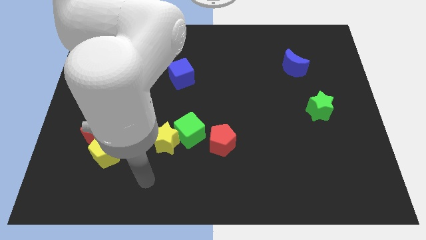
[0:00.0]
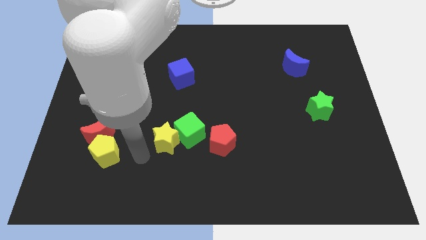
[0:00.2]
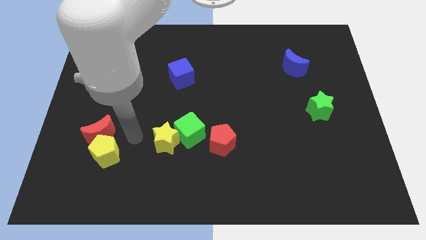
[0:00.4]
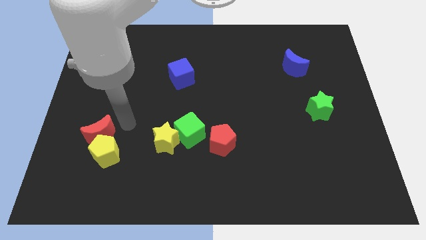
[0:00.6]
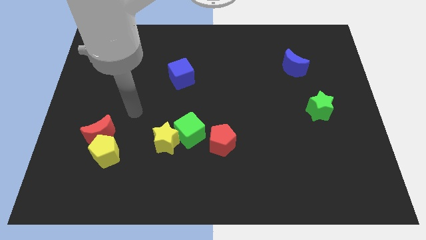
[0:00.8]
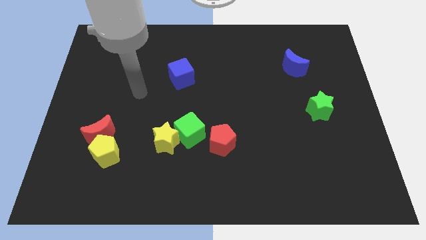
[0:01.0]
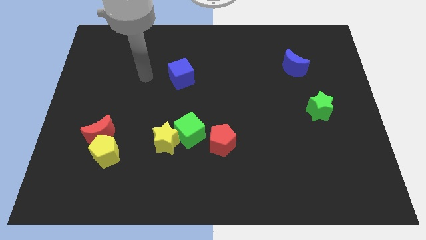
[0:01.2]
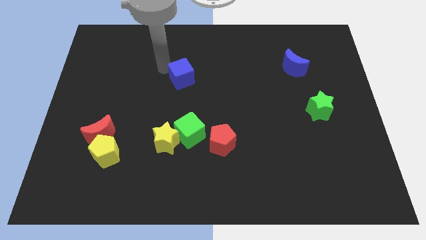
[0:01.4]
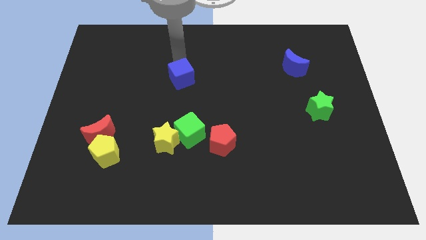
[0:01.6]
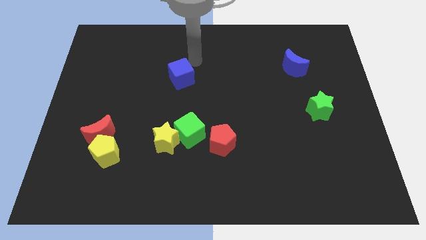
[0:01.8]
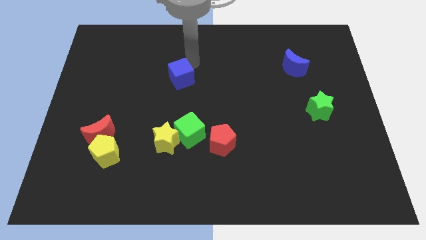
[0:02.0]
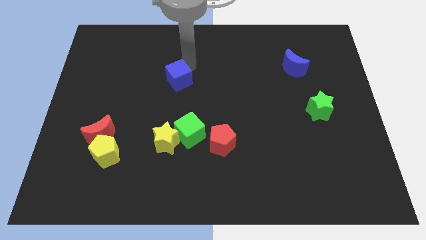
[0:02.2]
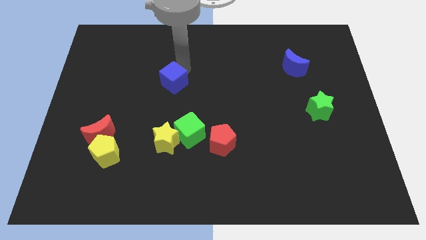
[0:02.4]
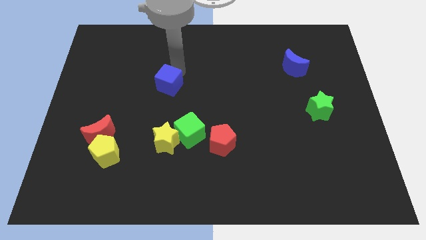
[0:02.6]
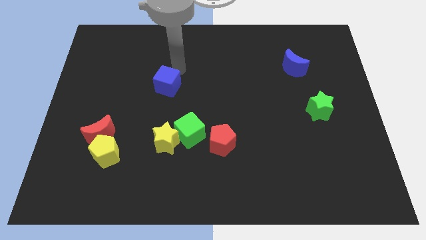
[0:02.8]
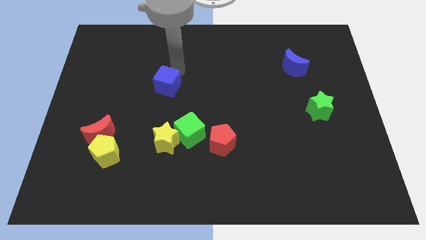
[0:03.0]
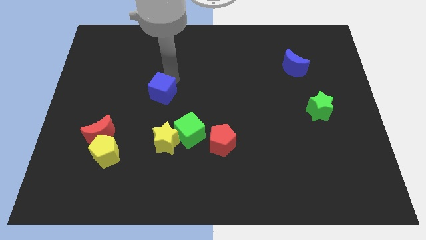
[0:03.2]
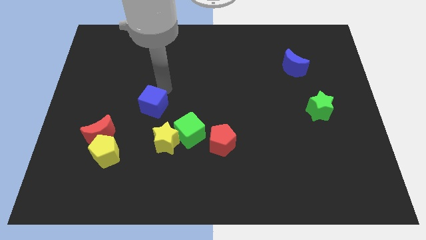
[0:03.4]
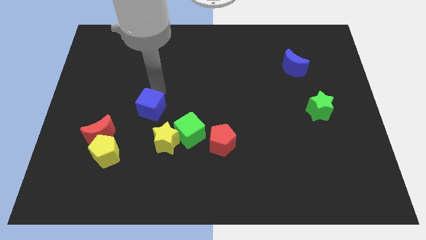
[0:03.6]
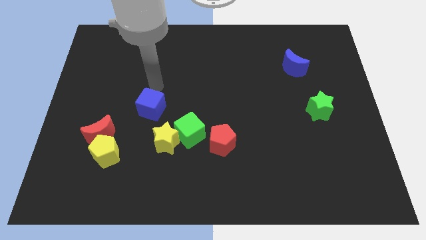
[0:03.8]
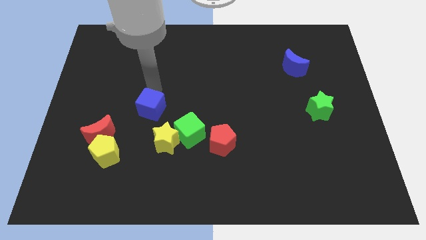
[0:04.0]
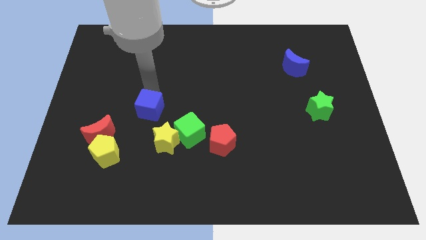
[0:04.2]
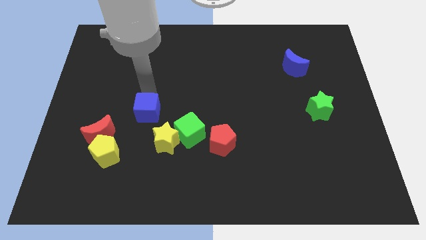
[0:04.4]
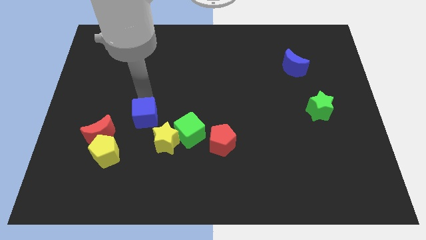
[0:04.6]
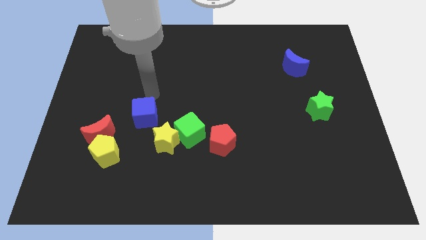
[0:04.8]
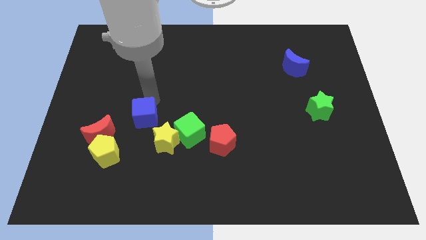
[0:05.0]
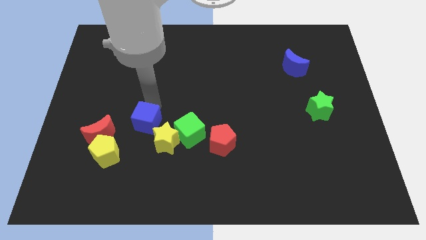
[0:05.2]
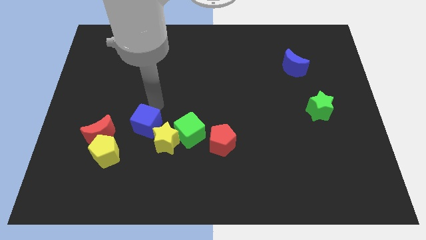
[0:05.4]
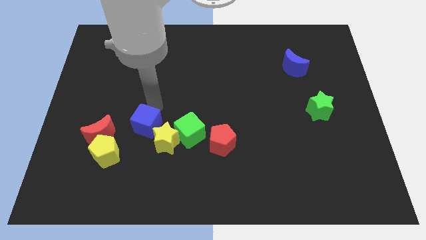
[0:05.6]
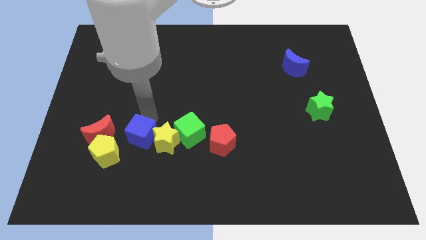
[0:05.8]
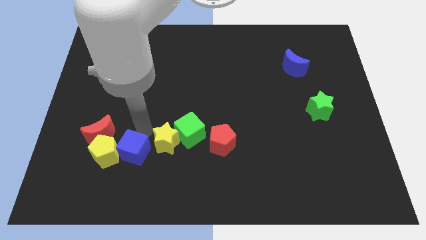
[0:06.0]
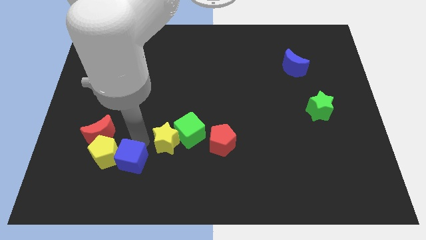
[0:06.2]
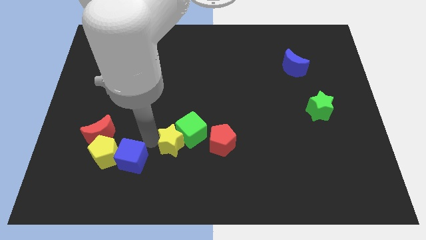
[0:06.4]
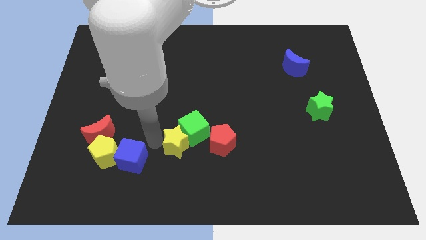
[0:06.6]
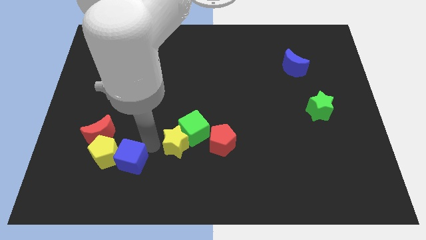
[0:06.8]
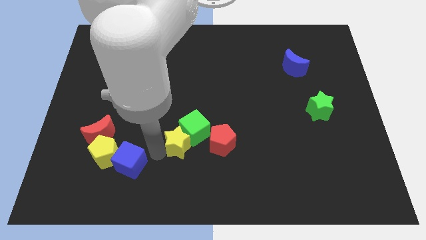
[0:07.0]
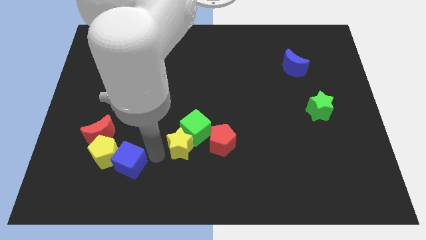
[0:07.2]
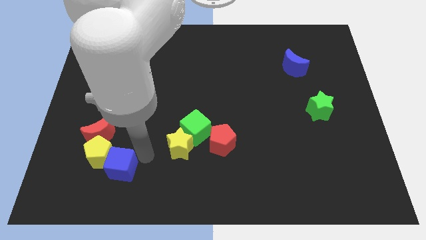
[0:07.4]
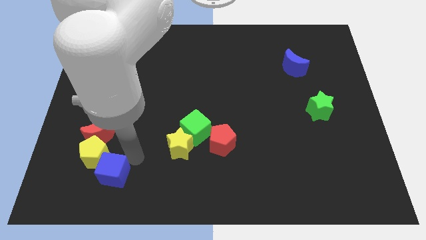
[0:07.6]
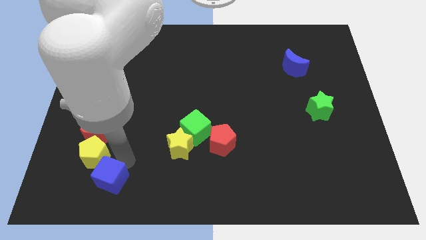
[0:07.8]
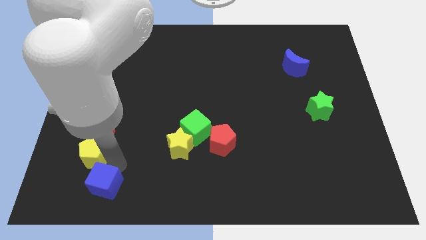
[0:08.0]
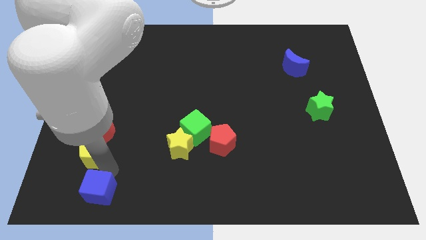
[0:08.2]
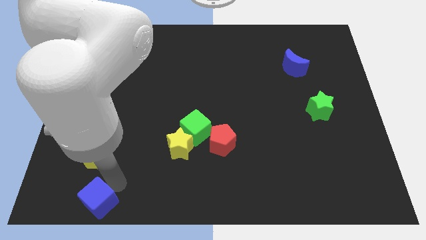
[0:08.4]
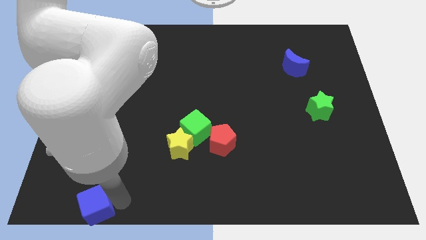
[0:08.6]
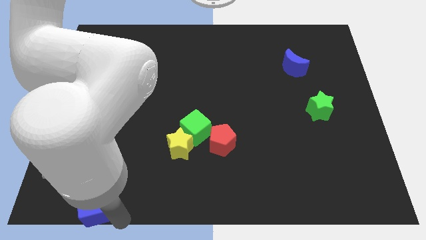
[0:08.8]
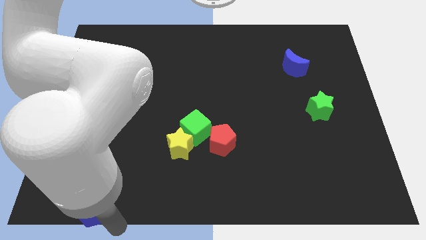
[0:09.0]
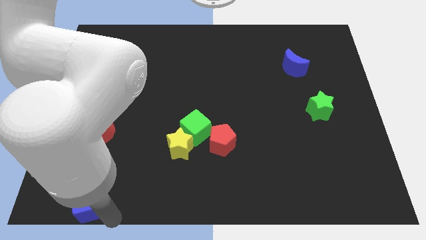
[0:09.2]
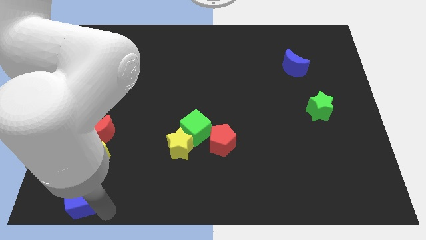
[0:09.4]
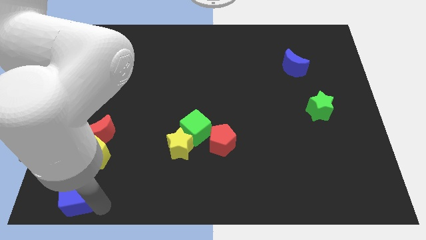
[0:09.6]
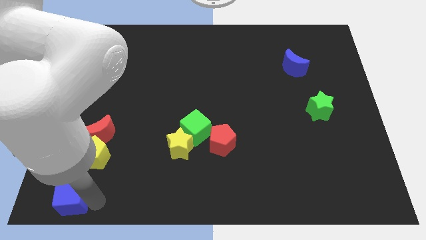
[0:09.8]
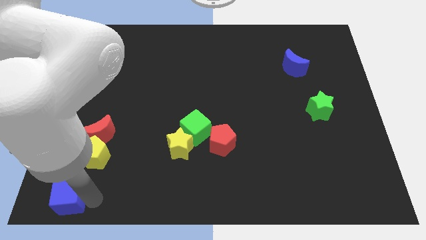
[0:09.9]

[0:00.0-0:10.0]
slide the blue cube to the bottom left side of the yellow pentagon

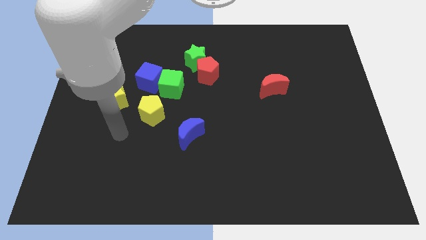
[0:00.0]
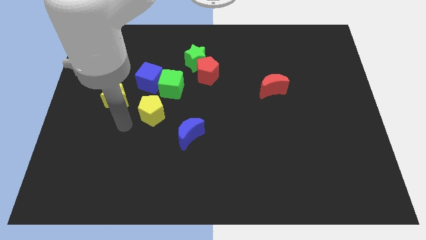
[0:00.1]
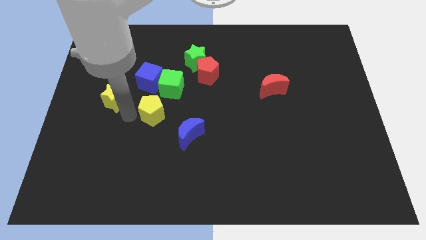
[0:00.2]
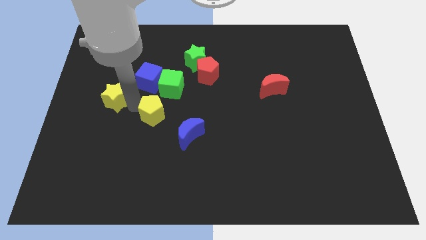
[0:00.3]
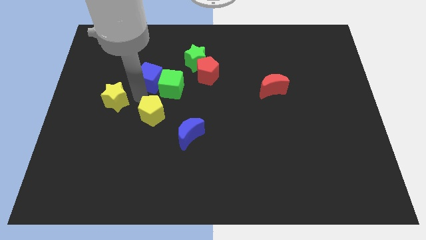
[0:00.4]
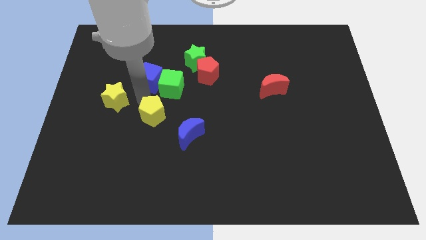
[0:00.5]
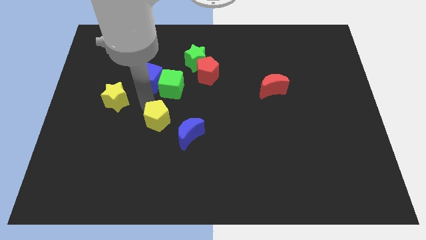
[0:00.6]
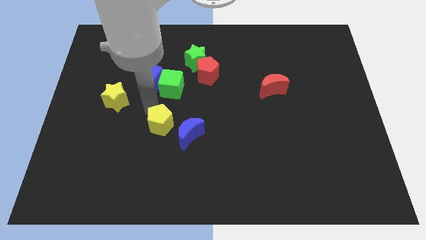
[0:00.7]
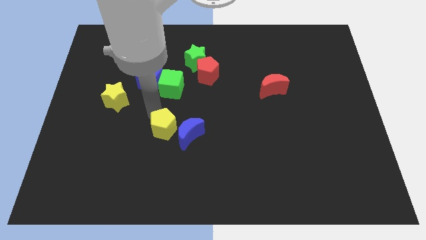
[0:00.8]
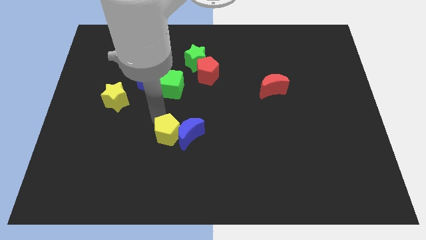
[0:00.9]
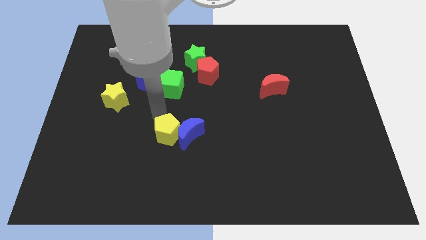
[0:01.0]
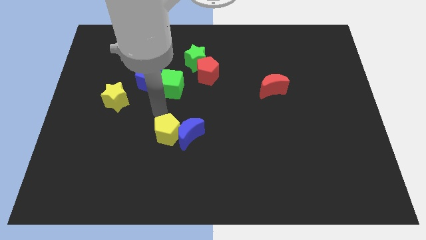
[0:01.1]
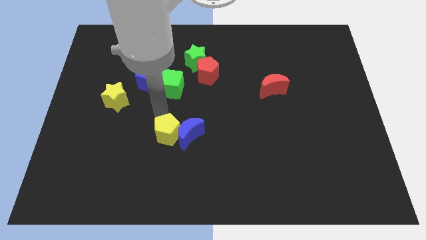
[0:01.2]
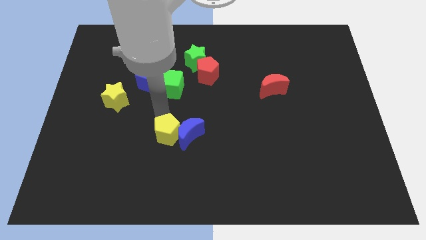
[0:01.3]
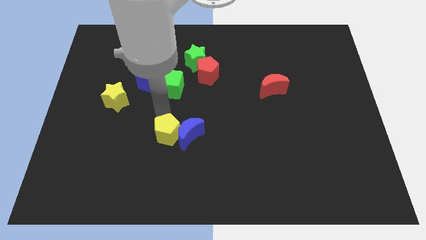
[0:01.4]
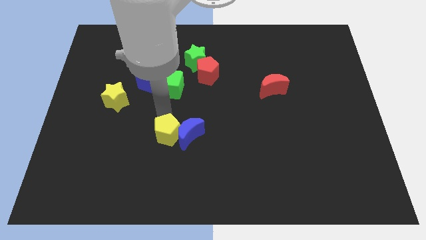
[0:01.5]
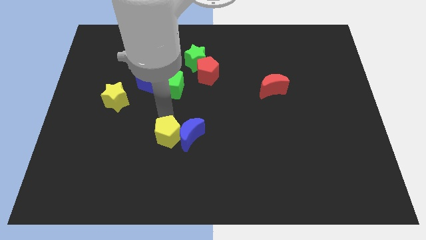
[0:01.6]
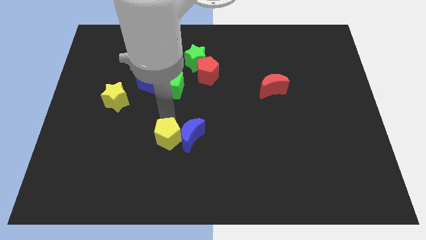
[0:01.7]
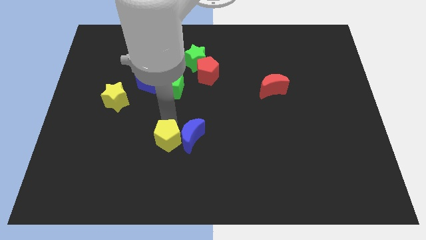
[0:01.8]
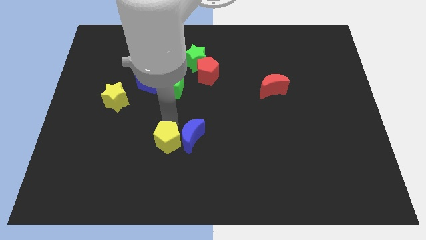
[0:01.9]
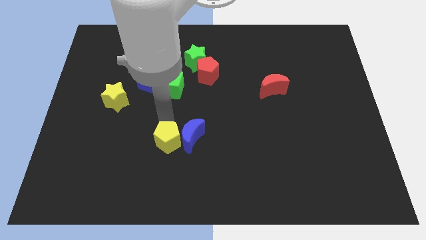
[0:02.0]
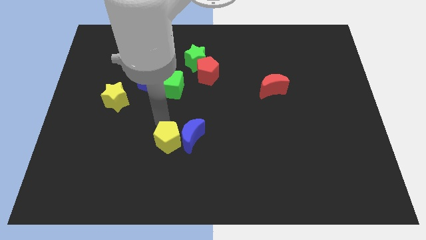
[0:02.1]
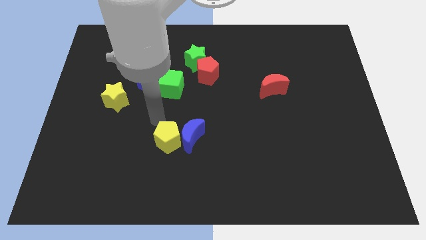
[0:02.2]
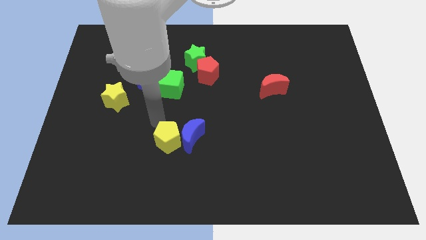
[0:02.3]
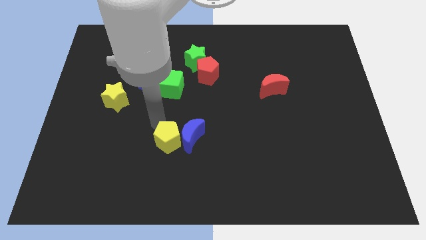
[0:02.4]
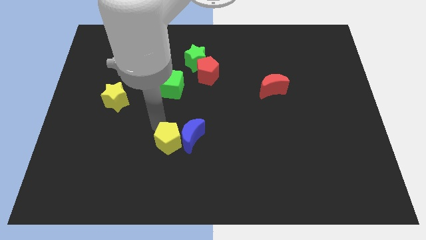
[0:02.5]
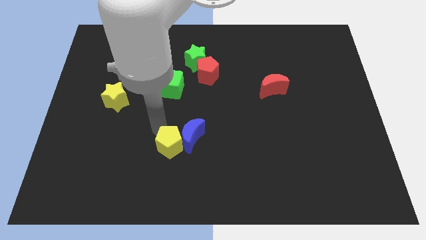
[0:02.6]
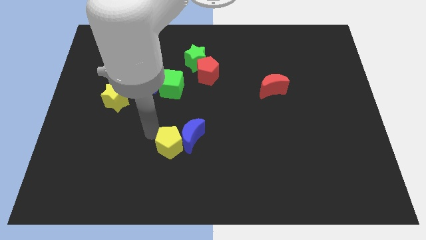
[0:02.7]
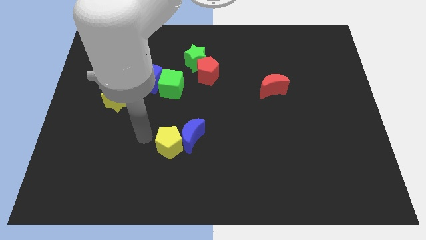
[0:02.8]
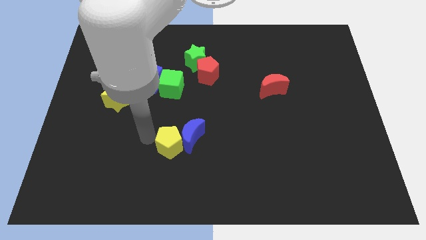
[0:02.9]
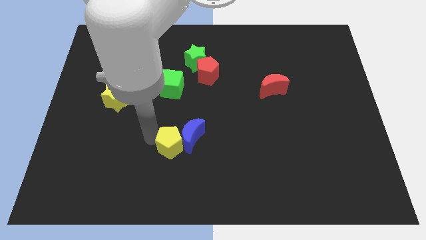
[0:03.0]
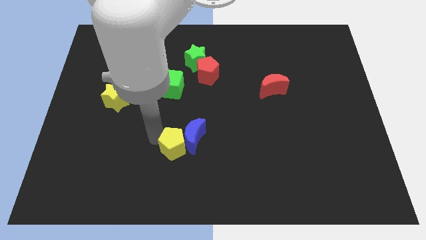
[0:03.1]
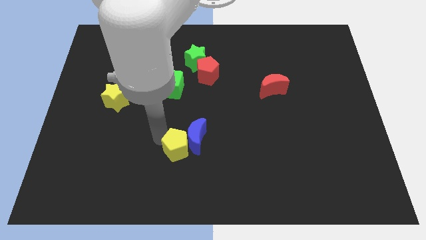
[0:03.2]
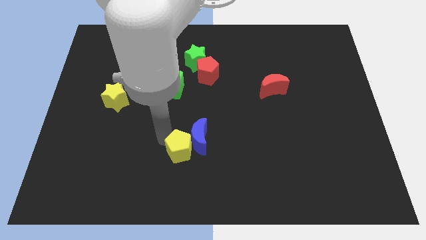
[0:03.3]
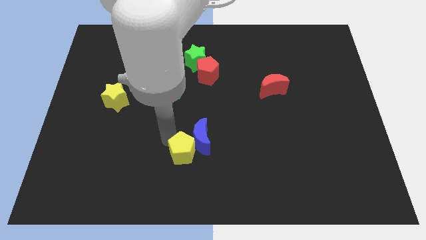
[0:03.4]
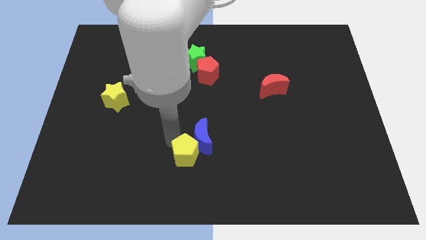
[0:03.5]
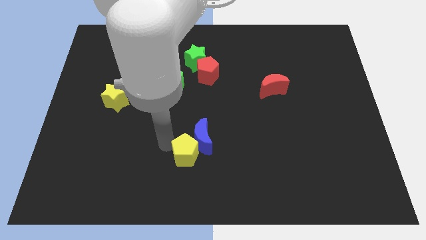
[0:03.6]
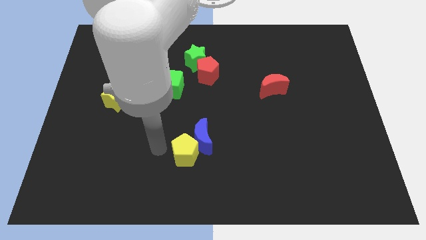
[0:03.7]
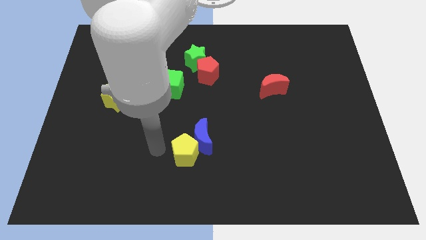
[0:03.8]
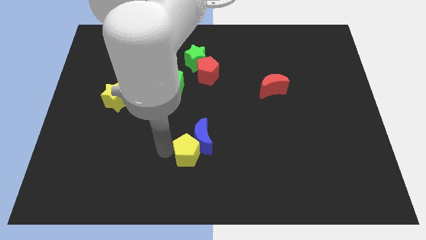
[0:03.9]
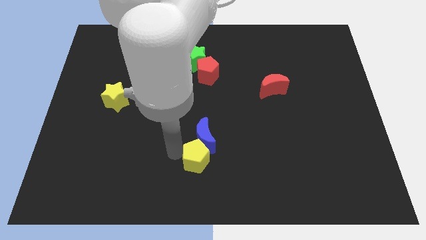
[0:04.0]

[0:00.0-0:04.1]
move the yellow pentagon diagonally down and to the right of the blue moon
